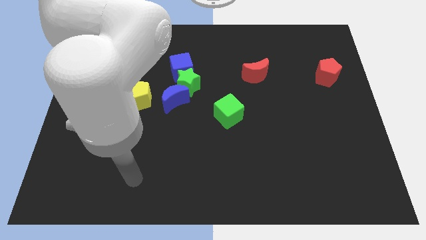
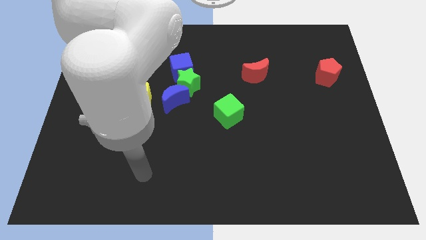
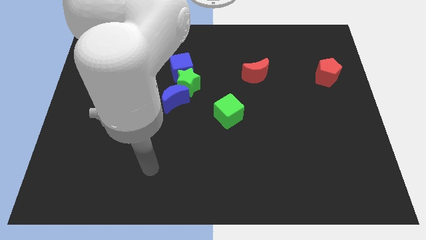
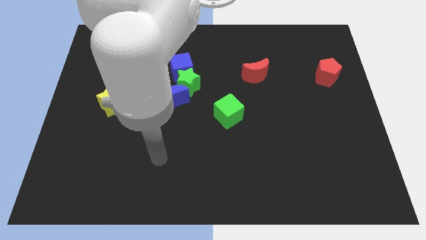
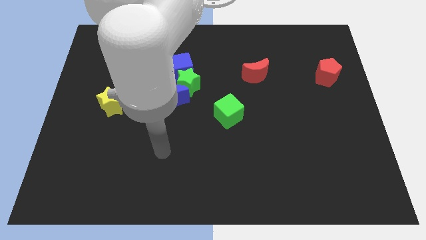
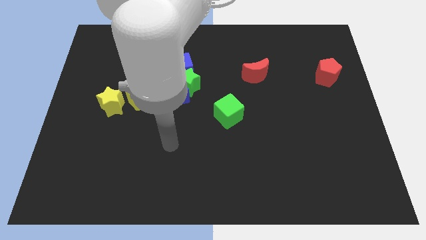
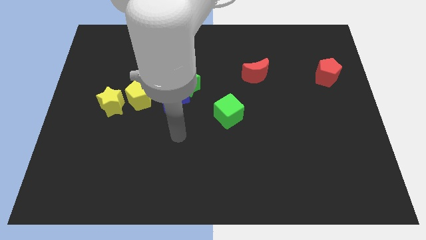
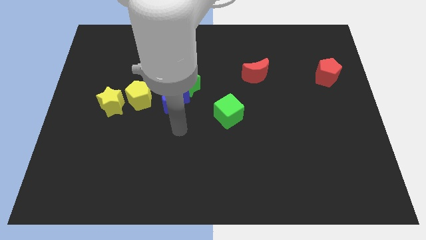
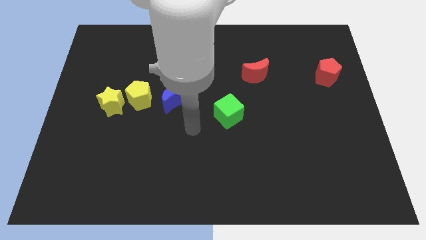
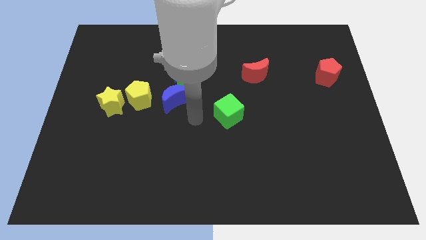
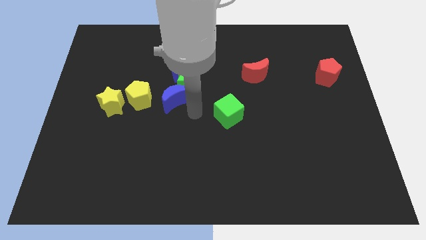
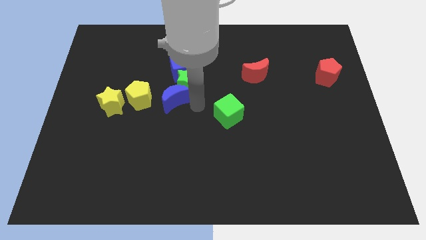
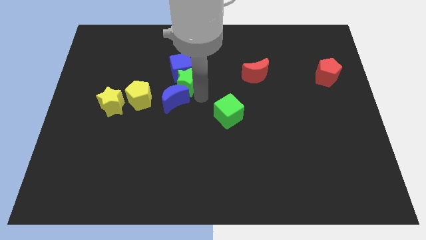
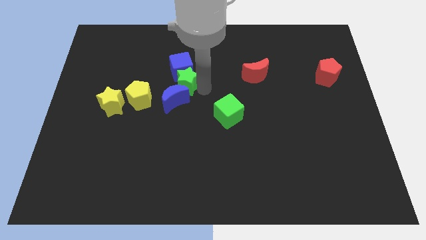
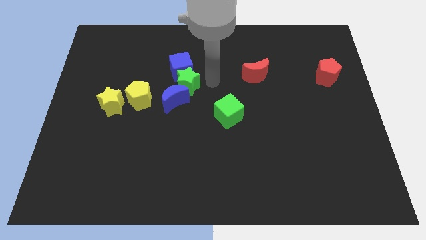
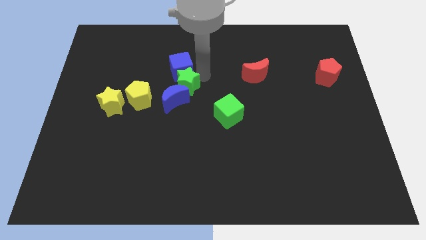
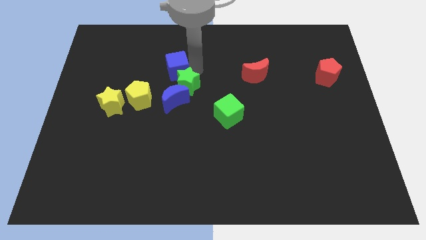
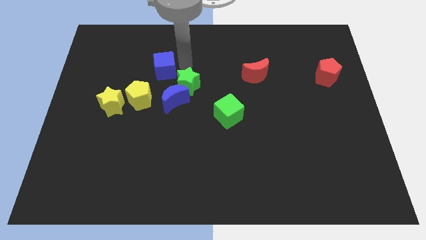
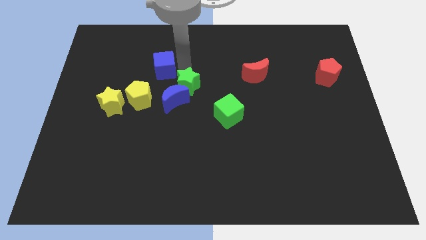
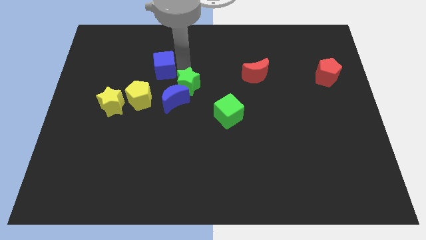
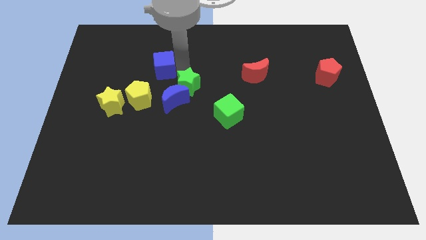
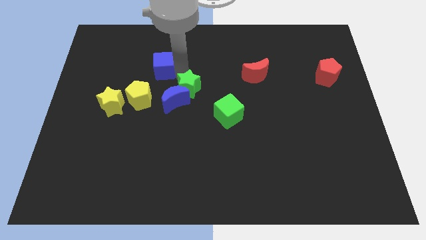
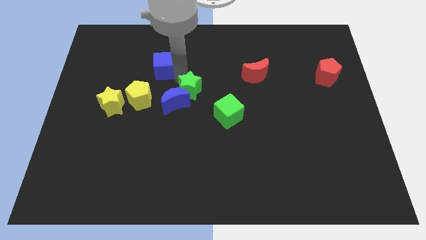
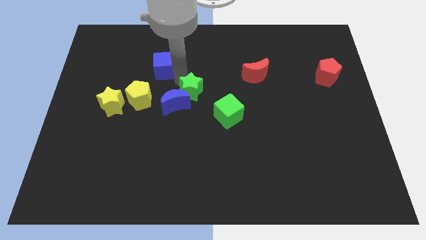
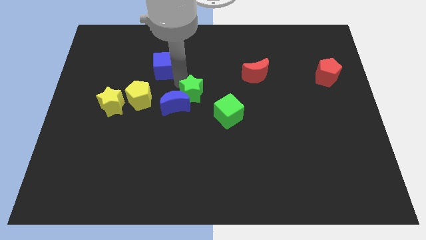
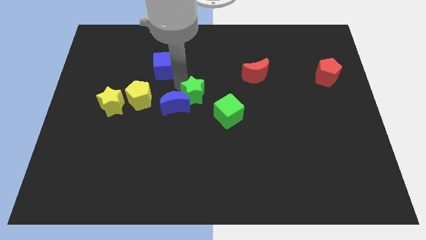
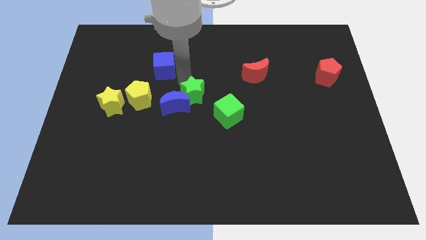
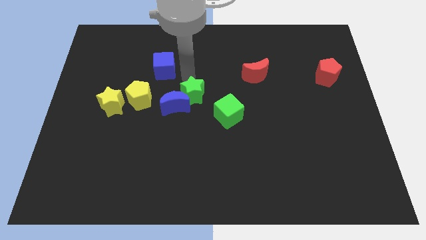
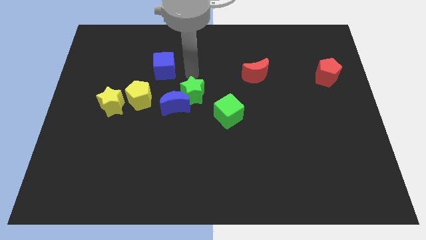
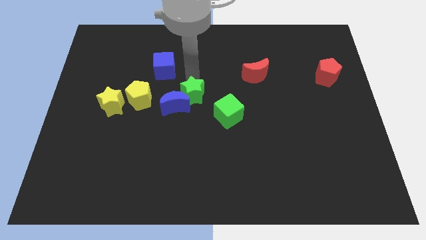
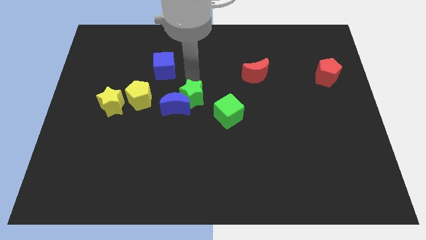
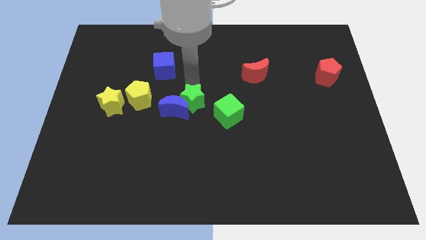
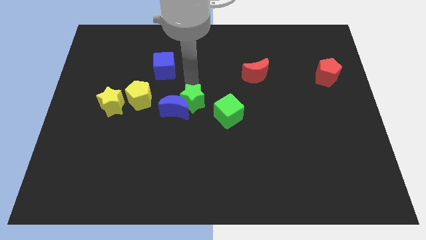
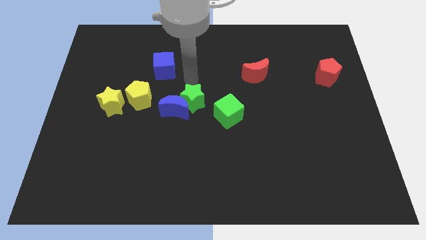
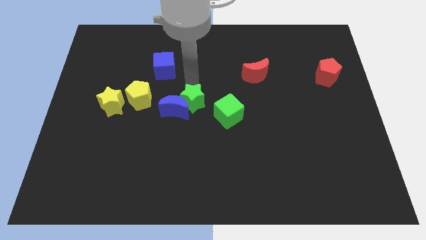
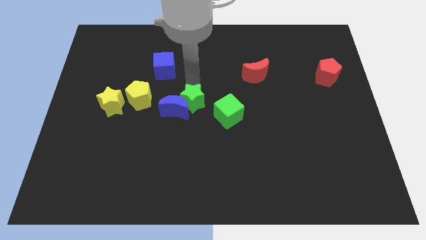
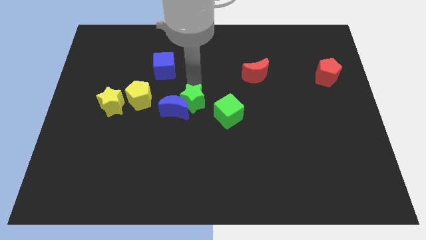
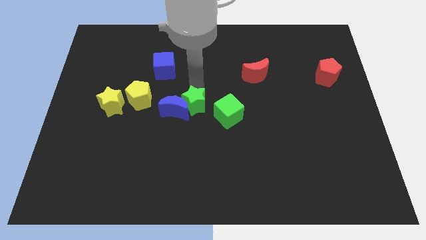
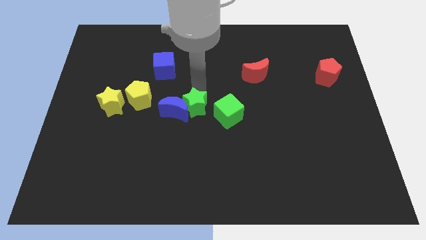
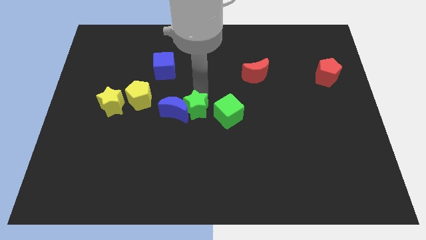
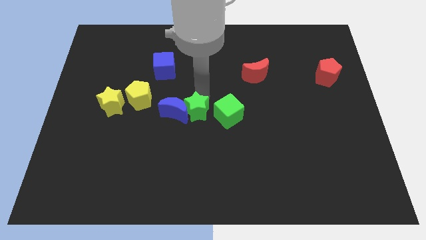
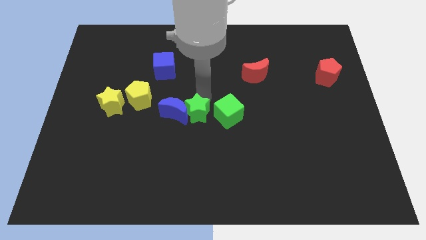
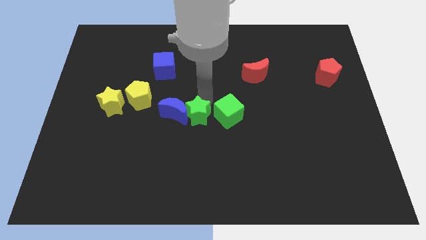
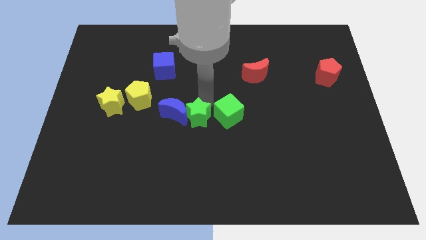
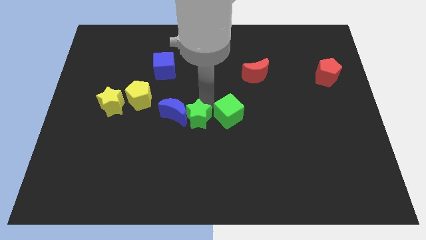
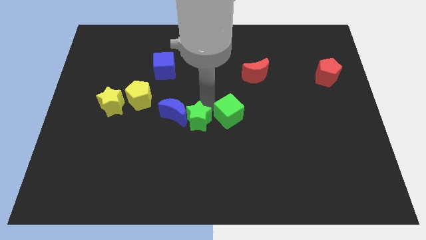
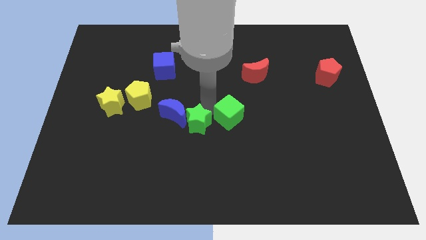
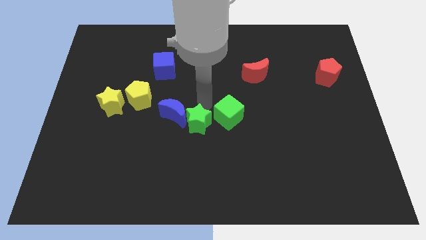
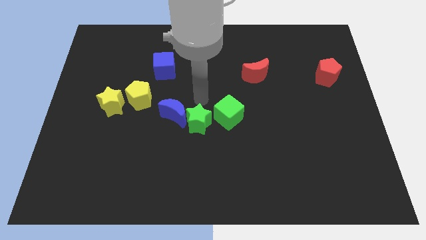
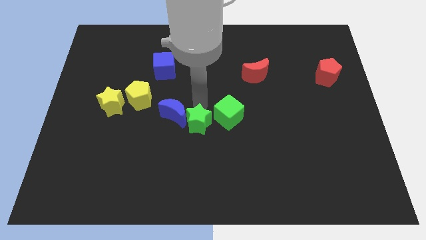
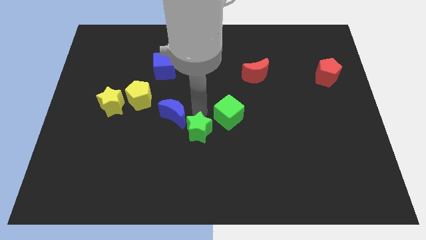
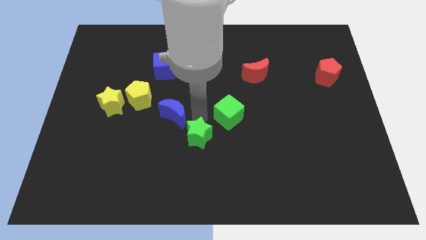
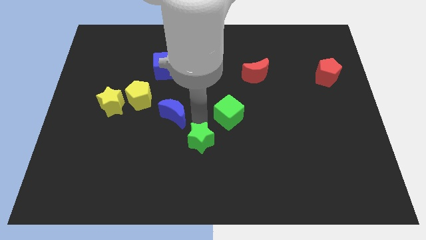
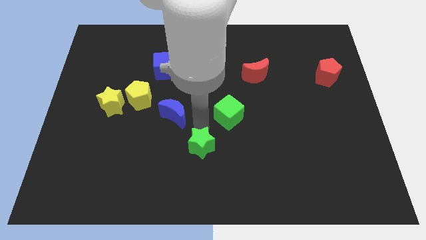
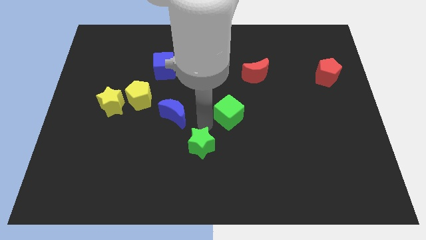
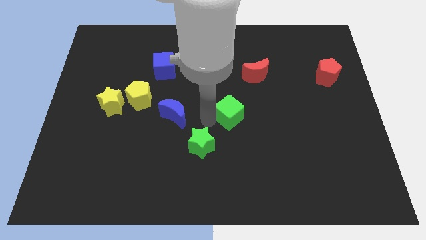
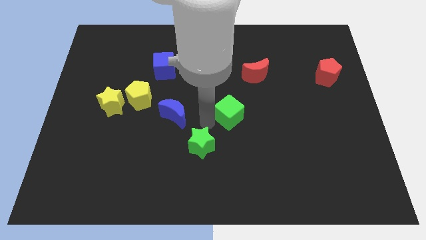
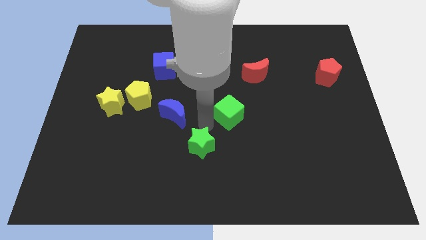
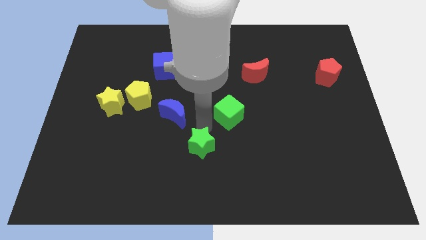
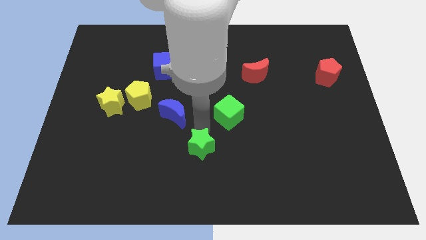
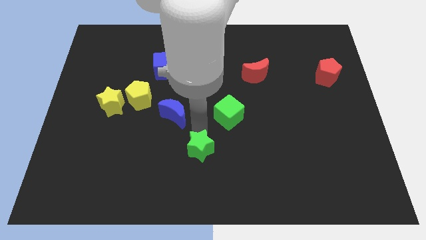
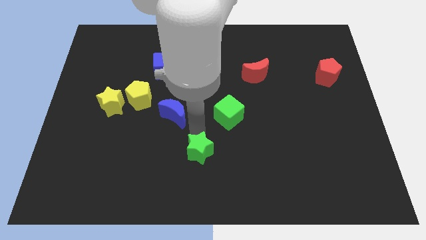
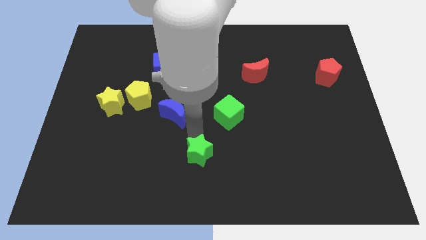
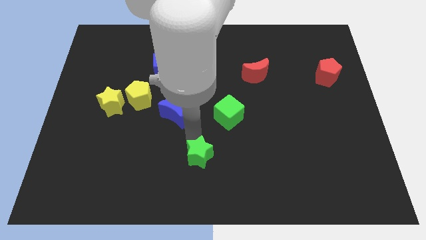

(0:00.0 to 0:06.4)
put the green star to the bottom side

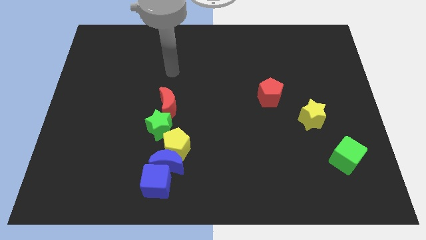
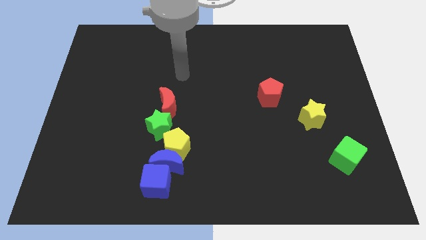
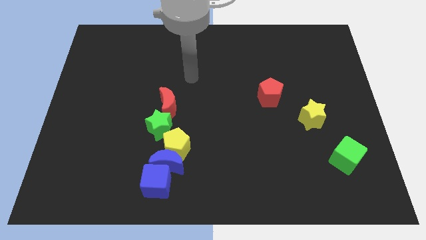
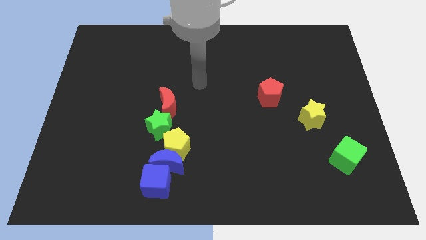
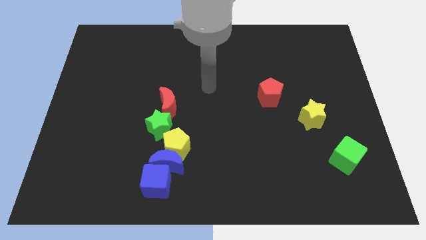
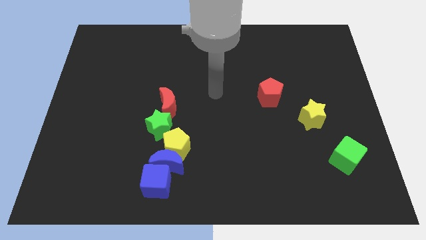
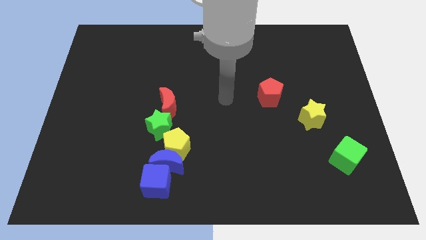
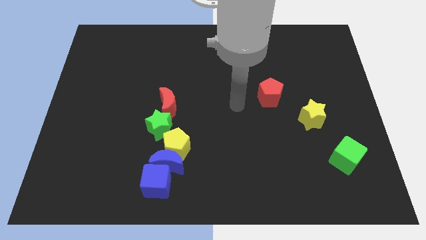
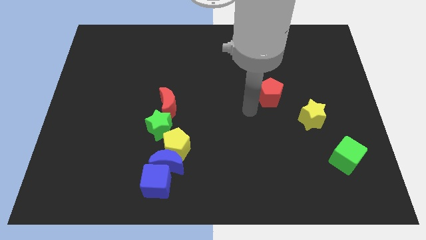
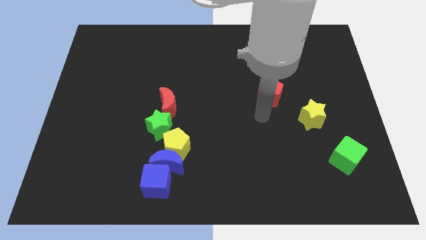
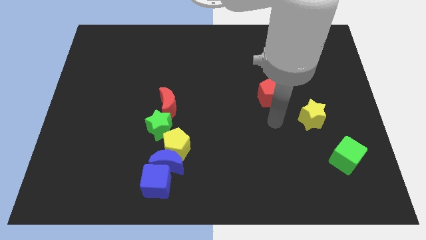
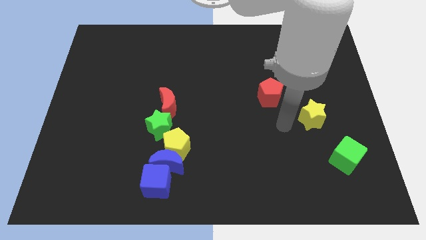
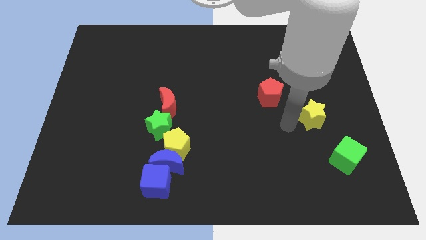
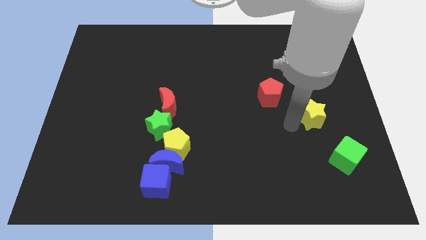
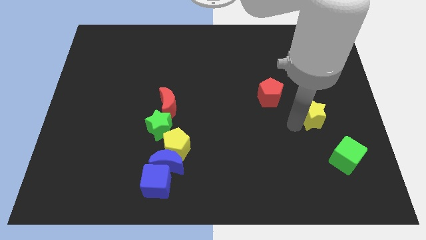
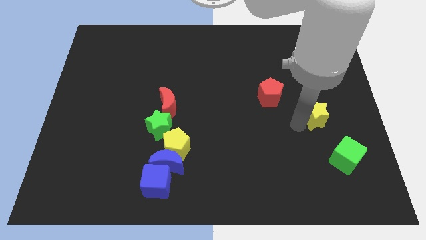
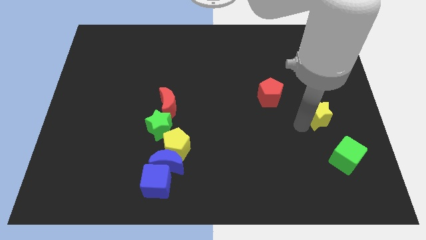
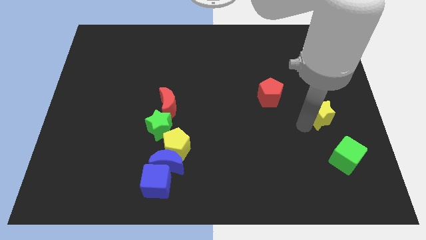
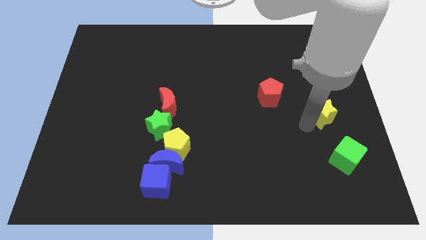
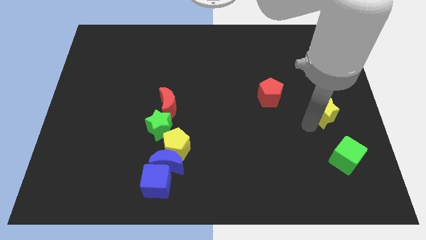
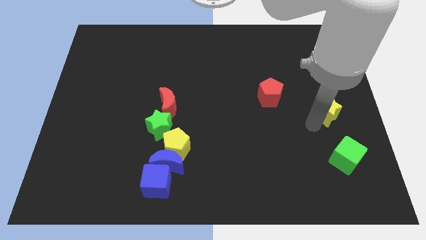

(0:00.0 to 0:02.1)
put the yellow star to the right side of the board
